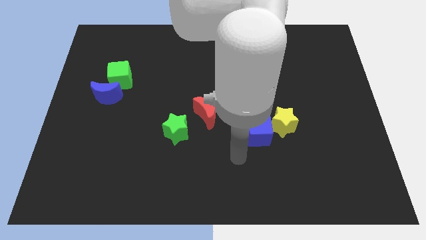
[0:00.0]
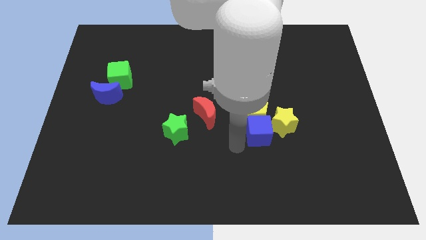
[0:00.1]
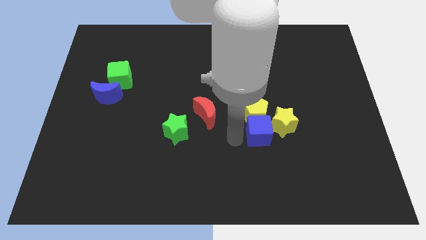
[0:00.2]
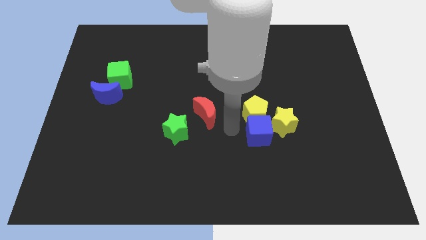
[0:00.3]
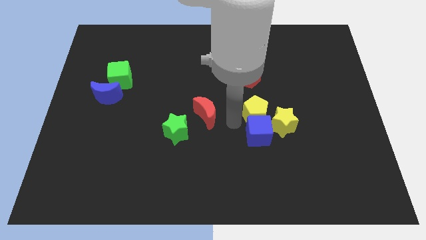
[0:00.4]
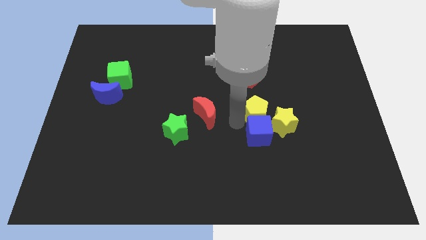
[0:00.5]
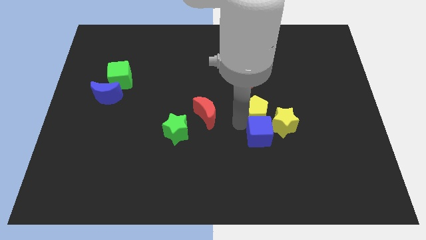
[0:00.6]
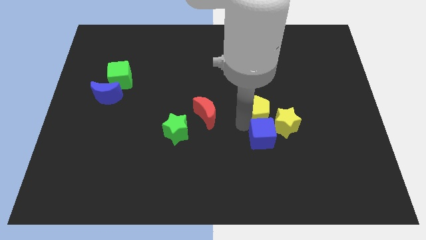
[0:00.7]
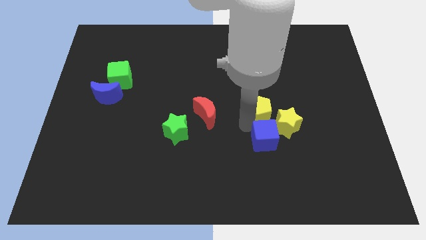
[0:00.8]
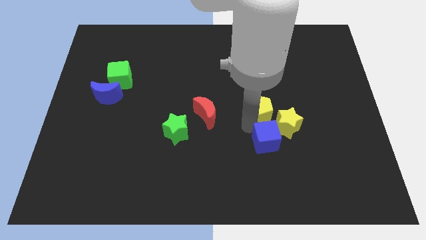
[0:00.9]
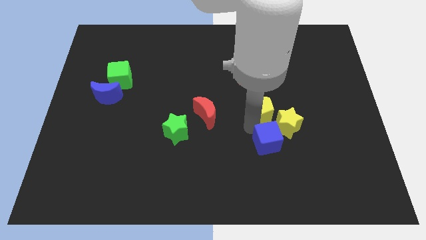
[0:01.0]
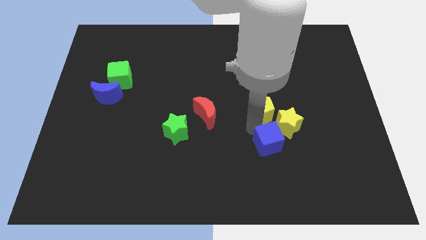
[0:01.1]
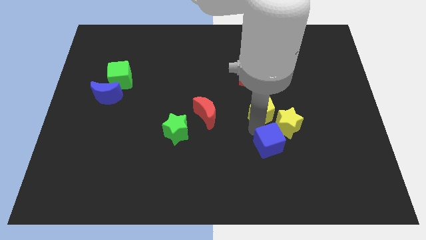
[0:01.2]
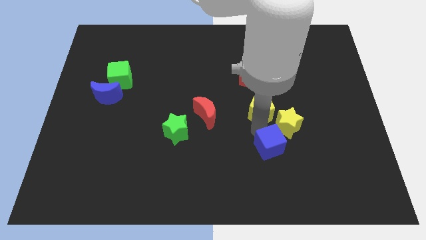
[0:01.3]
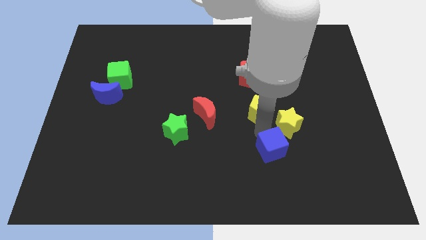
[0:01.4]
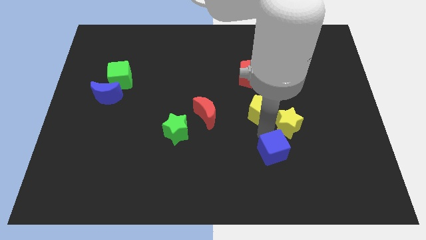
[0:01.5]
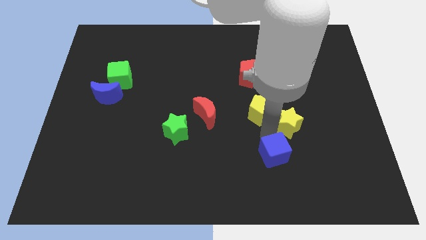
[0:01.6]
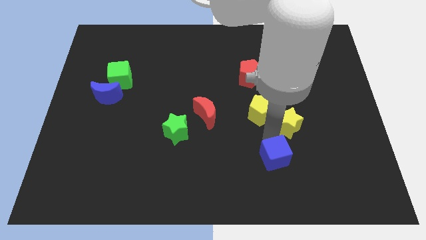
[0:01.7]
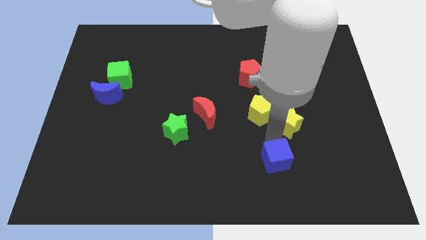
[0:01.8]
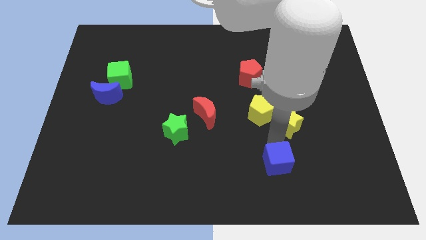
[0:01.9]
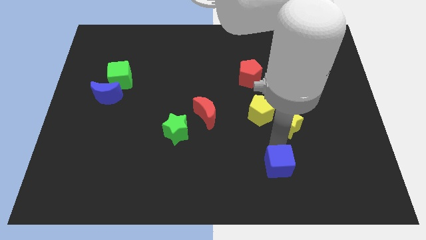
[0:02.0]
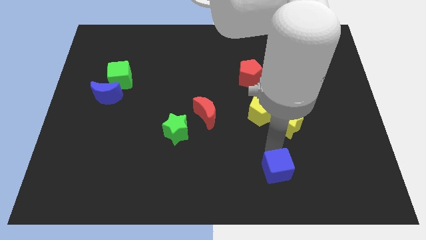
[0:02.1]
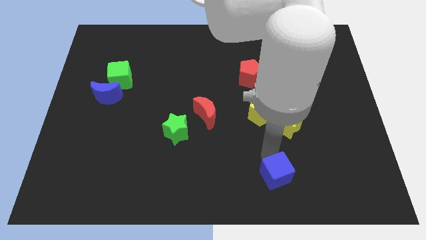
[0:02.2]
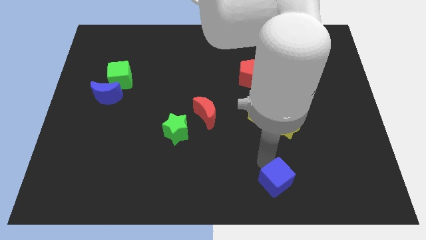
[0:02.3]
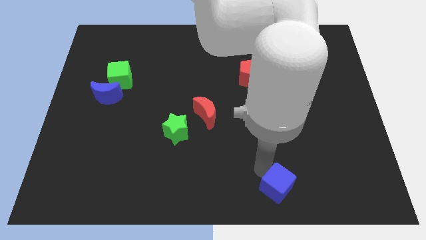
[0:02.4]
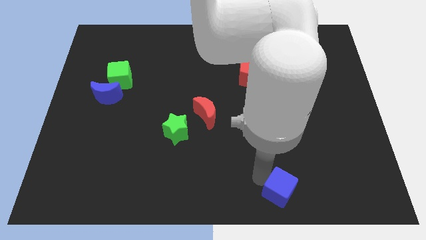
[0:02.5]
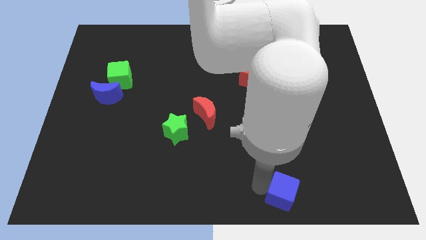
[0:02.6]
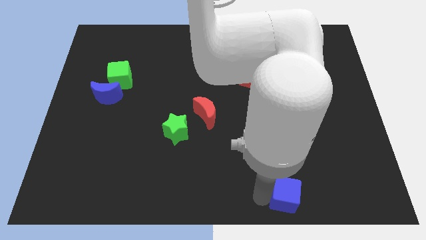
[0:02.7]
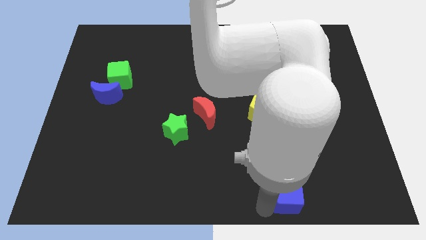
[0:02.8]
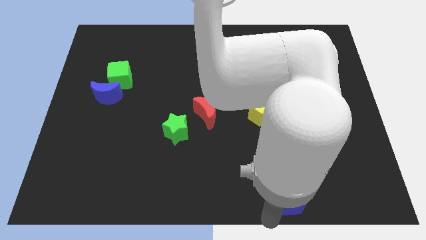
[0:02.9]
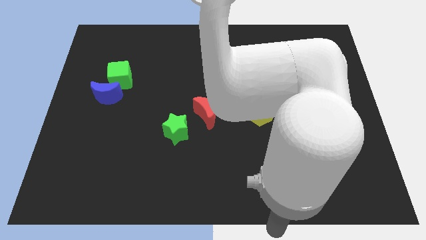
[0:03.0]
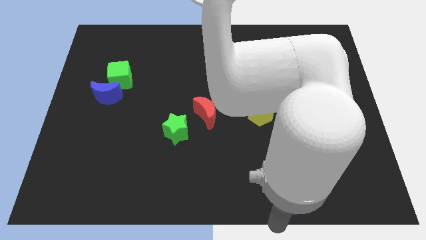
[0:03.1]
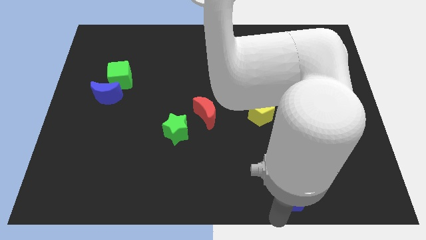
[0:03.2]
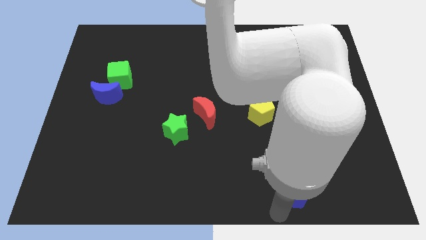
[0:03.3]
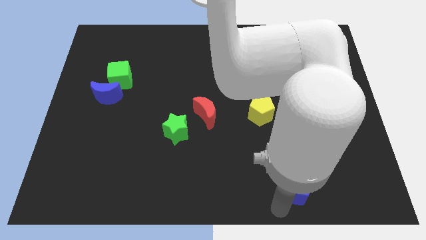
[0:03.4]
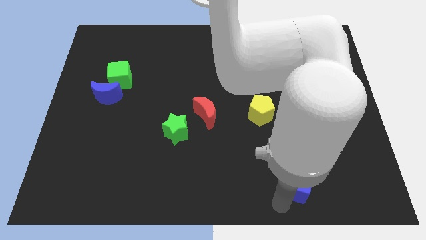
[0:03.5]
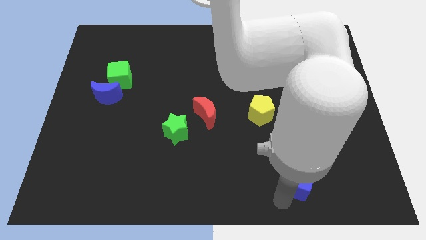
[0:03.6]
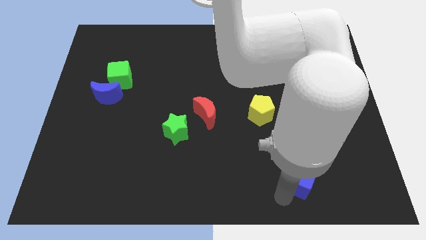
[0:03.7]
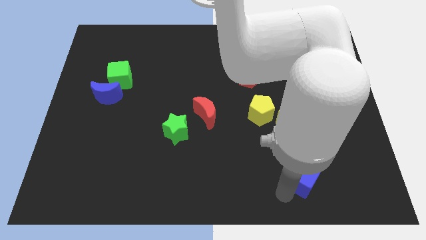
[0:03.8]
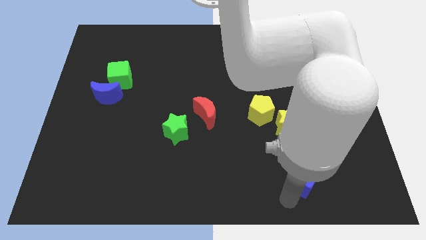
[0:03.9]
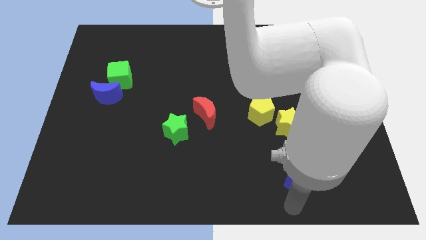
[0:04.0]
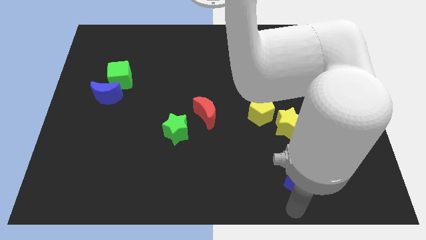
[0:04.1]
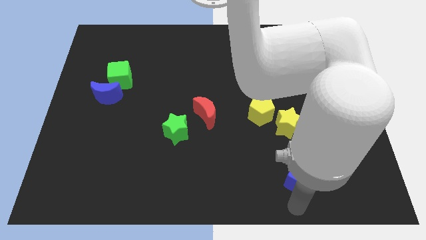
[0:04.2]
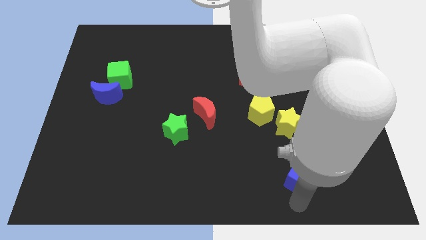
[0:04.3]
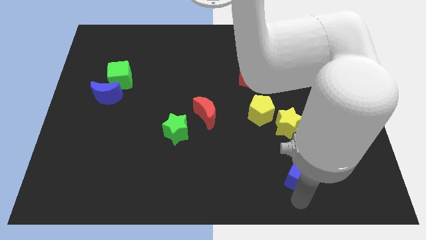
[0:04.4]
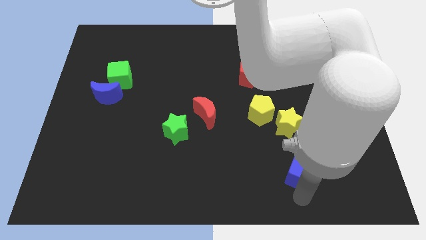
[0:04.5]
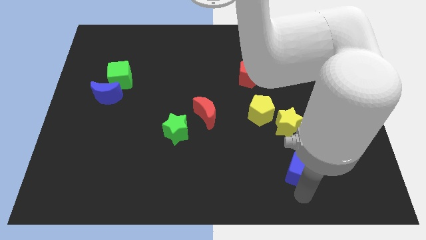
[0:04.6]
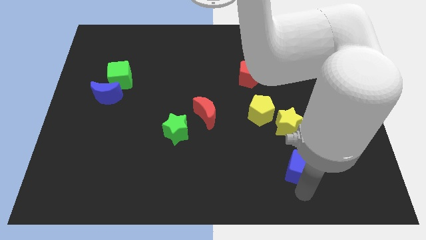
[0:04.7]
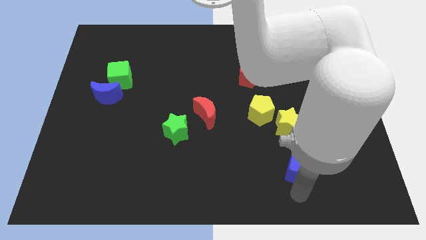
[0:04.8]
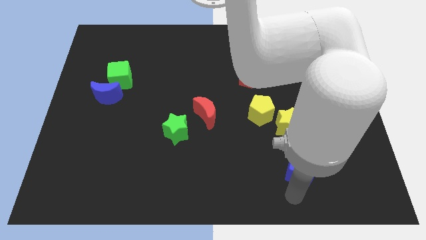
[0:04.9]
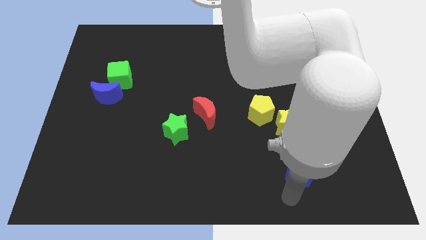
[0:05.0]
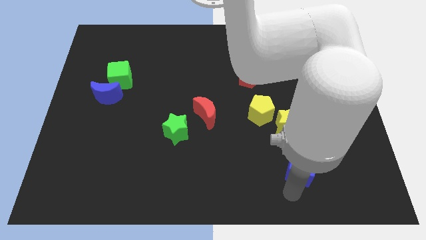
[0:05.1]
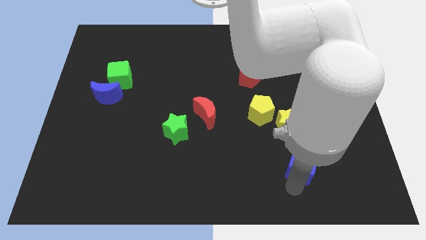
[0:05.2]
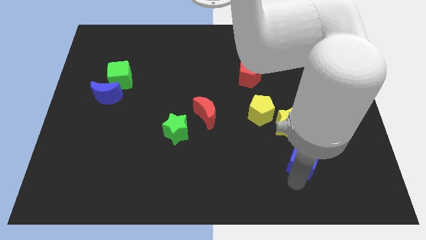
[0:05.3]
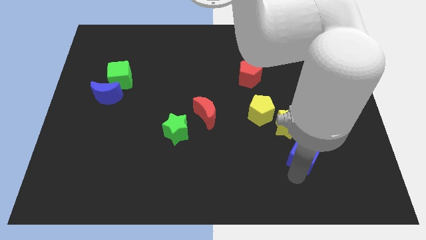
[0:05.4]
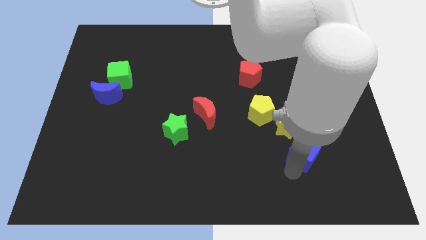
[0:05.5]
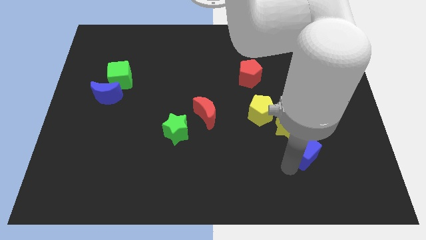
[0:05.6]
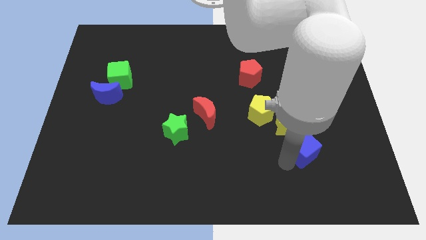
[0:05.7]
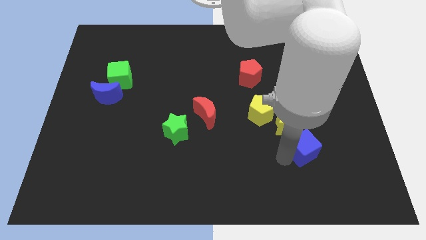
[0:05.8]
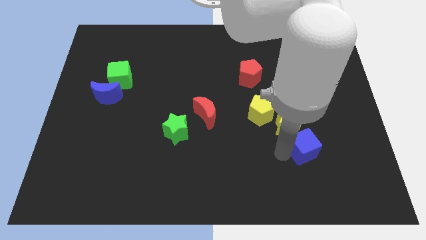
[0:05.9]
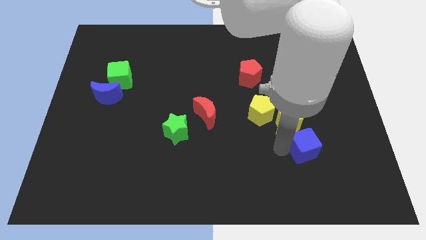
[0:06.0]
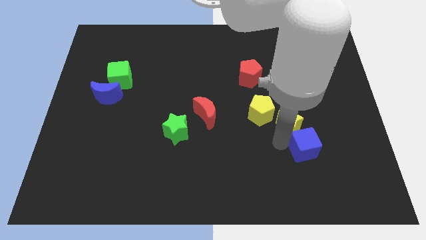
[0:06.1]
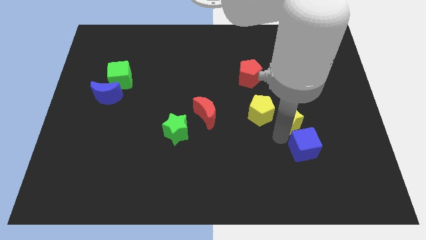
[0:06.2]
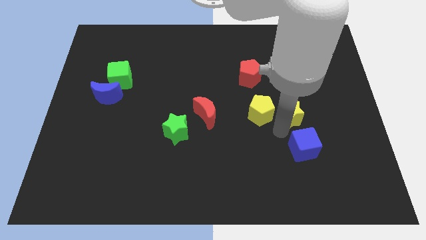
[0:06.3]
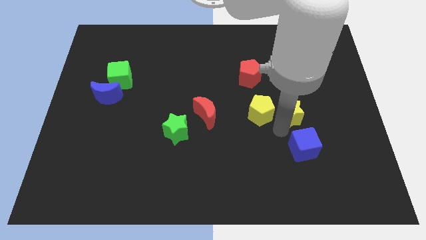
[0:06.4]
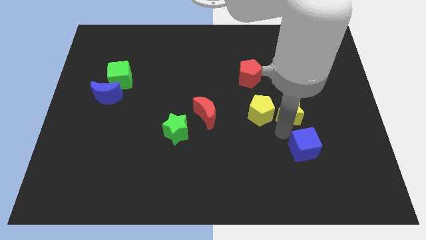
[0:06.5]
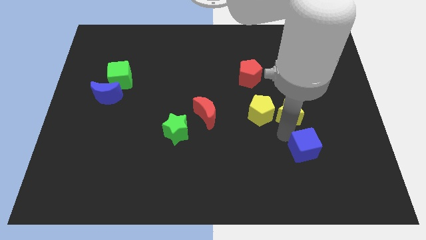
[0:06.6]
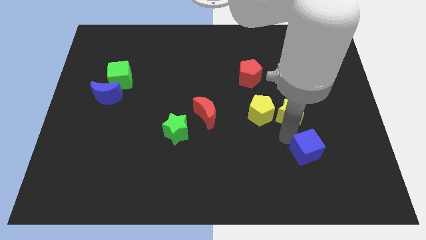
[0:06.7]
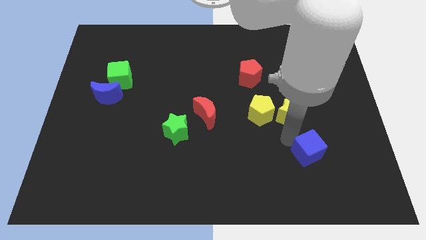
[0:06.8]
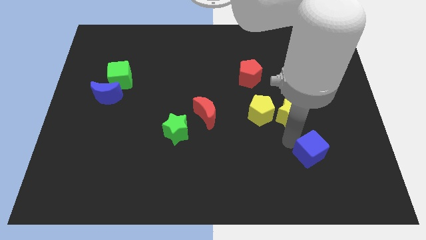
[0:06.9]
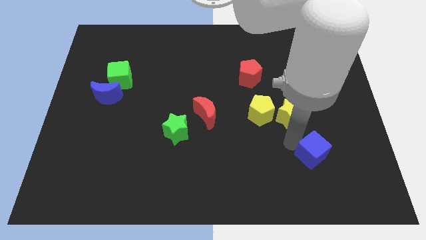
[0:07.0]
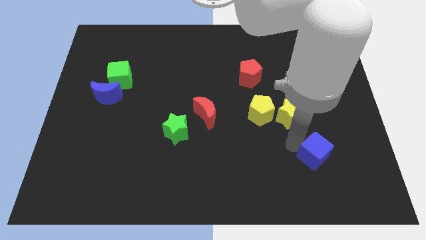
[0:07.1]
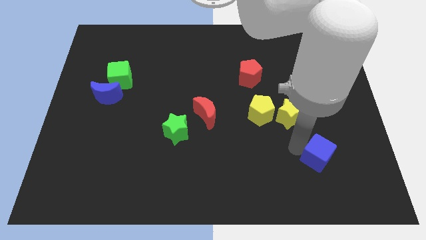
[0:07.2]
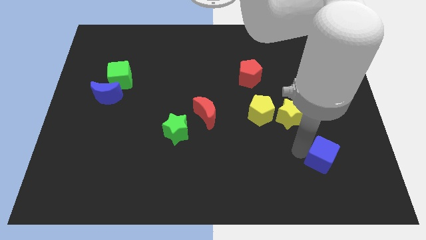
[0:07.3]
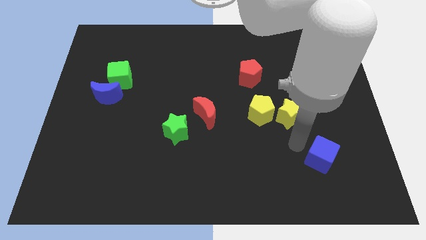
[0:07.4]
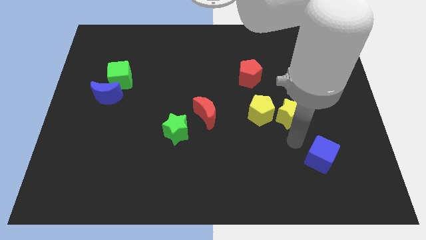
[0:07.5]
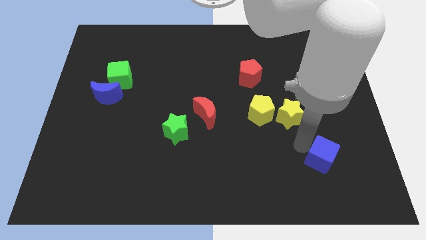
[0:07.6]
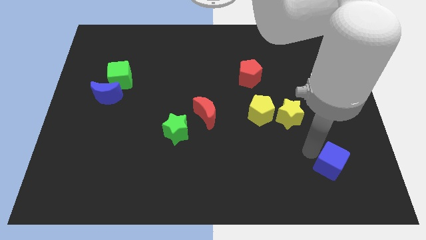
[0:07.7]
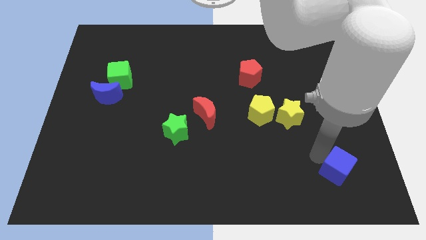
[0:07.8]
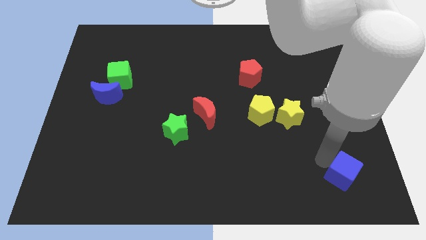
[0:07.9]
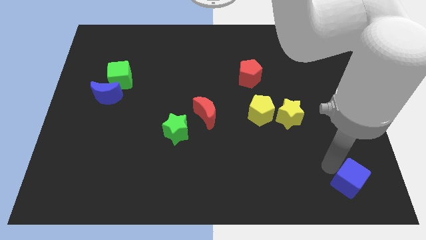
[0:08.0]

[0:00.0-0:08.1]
push the blue cube to the bottom right
